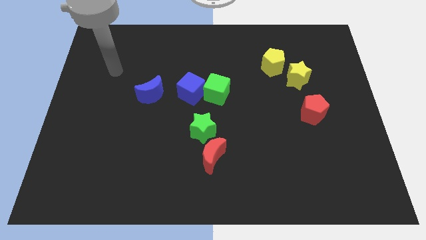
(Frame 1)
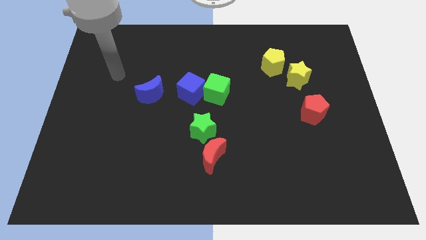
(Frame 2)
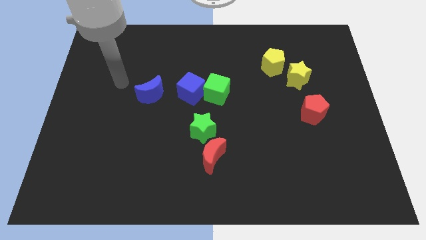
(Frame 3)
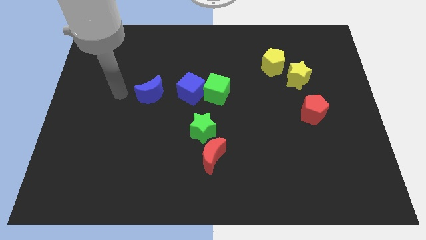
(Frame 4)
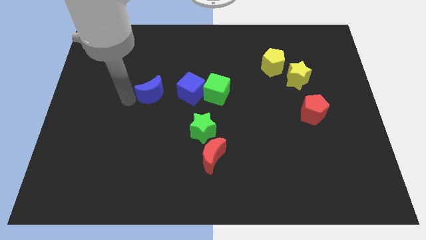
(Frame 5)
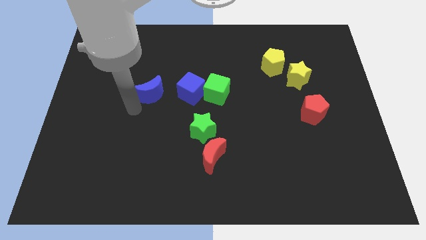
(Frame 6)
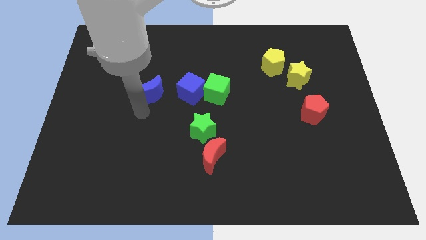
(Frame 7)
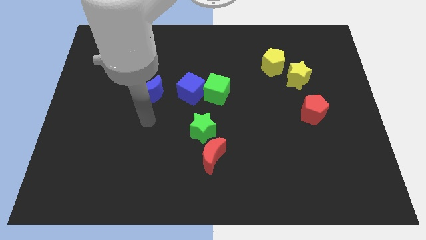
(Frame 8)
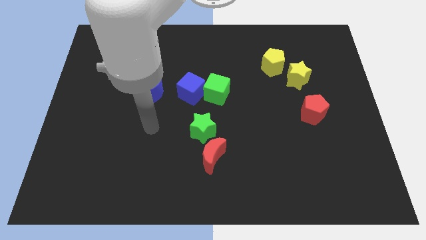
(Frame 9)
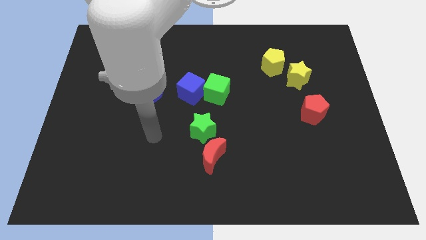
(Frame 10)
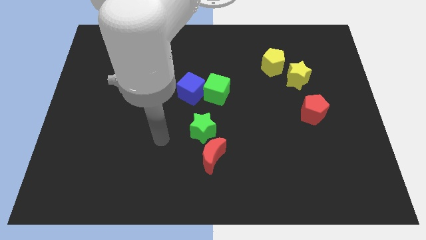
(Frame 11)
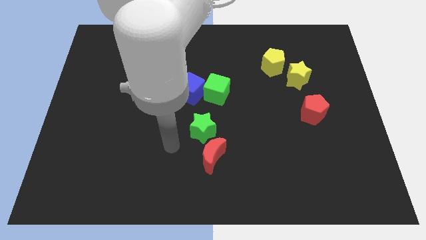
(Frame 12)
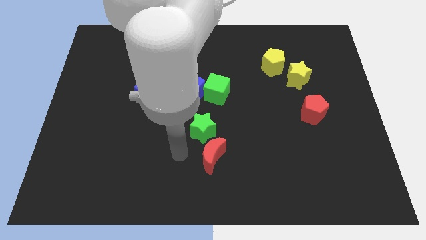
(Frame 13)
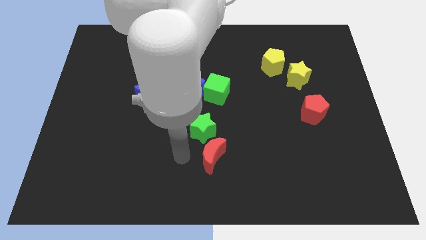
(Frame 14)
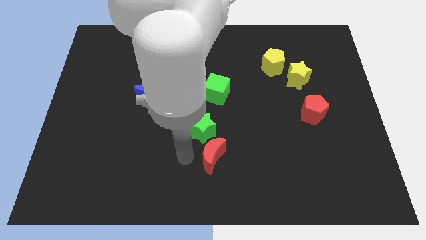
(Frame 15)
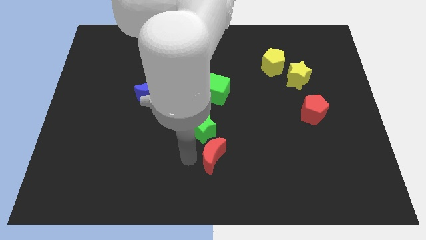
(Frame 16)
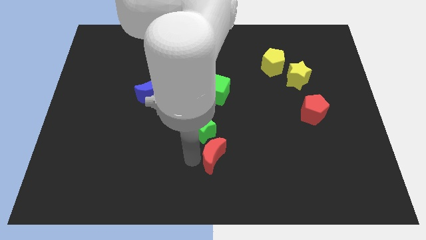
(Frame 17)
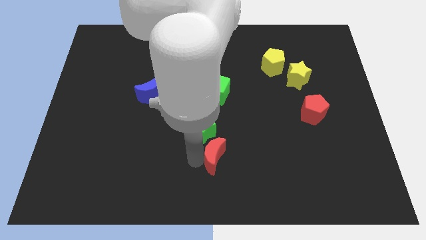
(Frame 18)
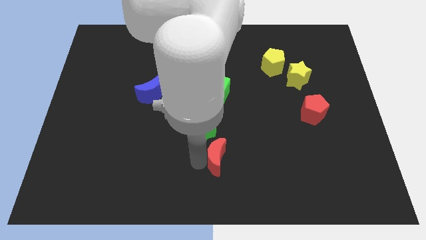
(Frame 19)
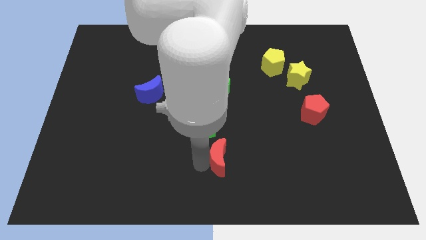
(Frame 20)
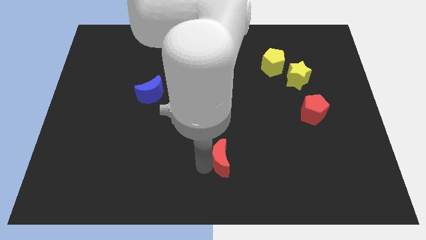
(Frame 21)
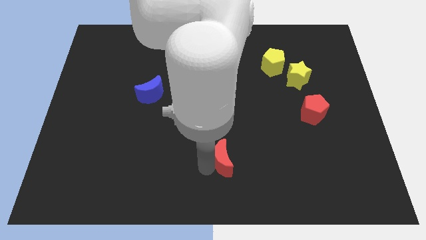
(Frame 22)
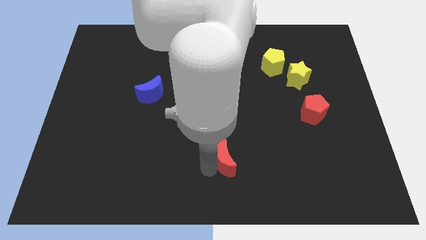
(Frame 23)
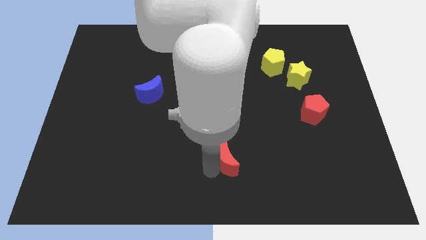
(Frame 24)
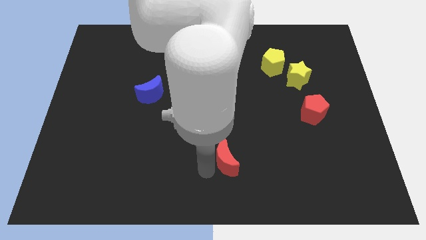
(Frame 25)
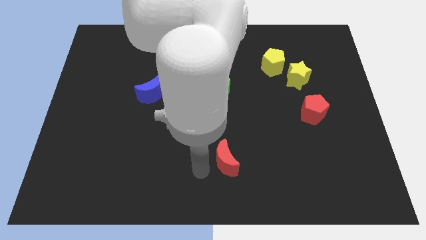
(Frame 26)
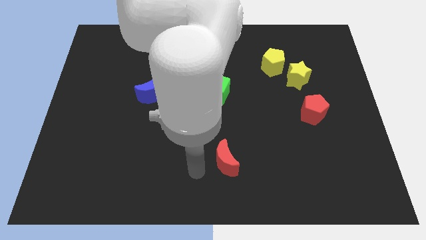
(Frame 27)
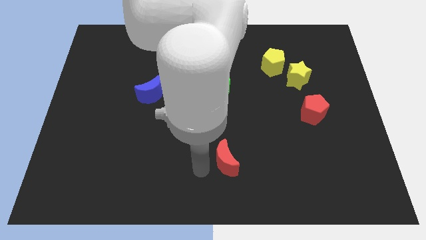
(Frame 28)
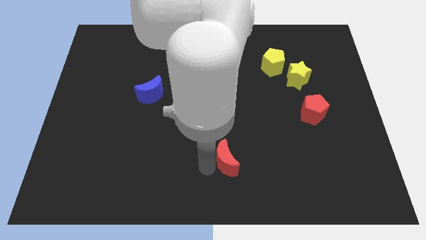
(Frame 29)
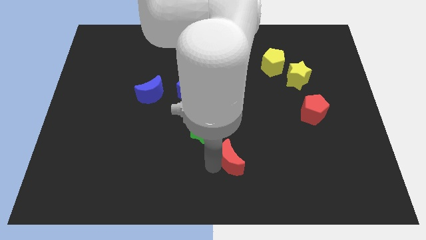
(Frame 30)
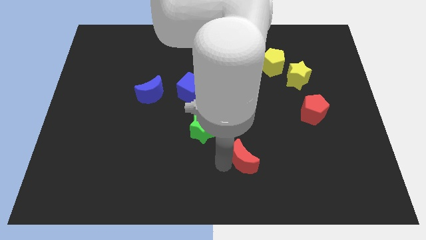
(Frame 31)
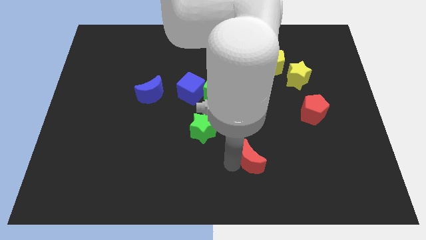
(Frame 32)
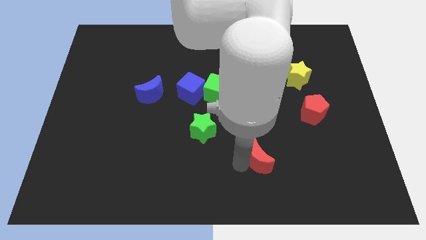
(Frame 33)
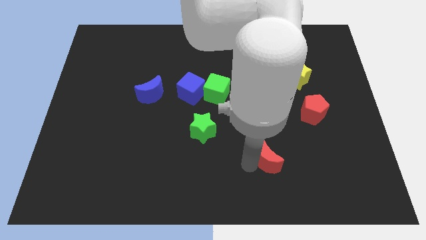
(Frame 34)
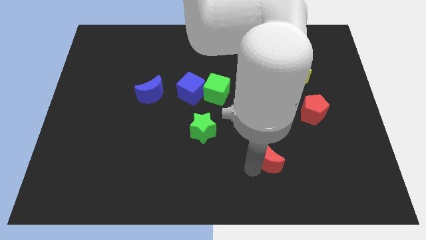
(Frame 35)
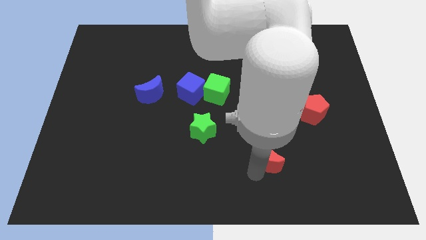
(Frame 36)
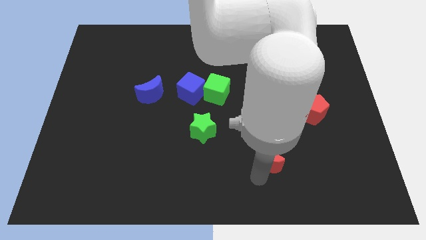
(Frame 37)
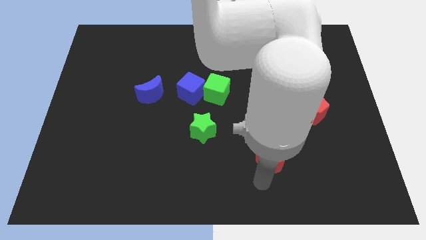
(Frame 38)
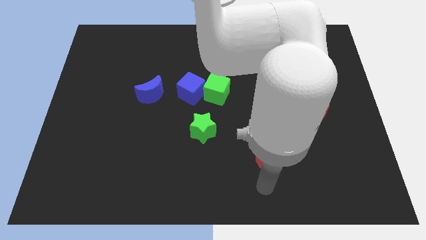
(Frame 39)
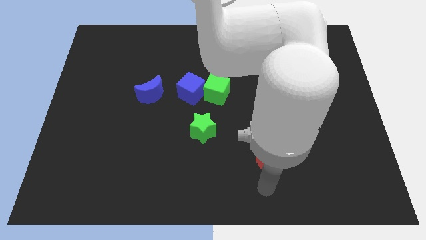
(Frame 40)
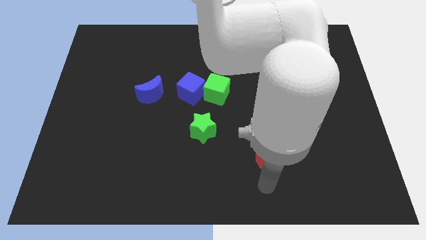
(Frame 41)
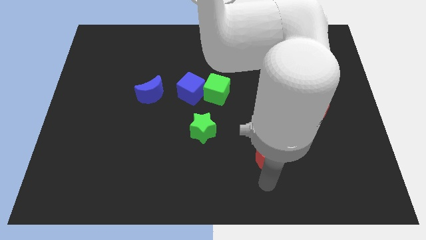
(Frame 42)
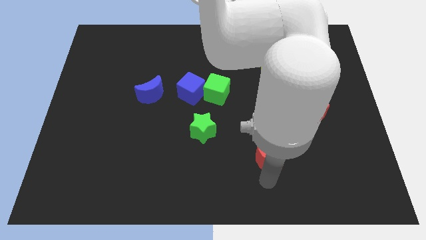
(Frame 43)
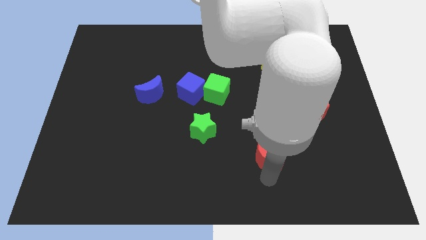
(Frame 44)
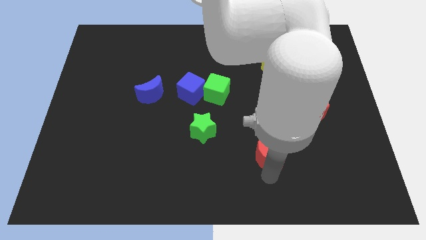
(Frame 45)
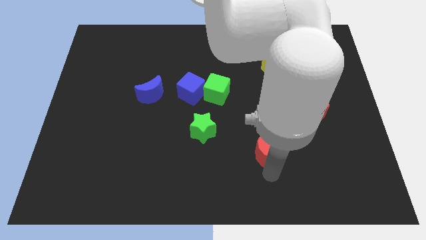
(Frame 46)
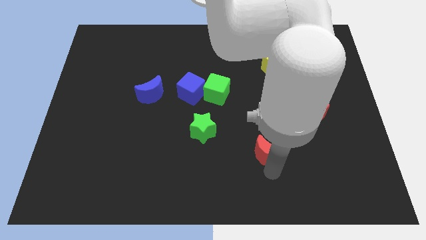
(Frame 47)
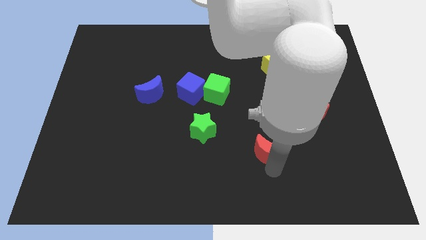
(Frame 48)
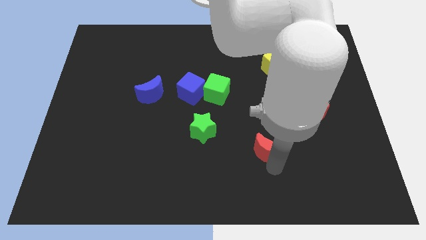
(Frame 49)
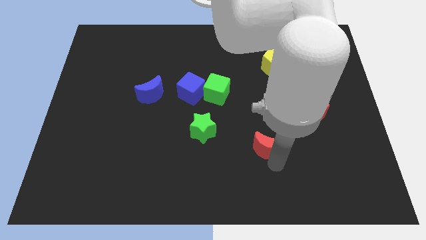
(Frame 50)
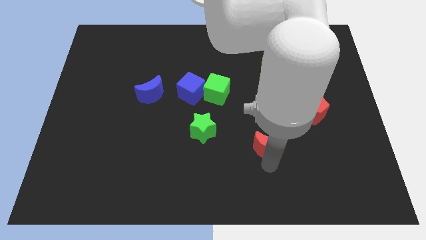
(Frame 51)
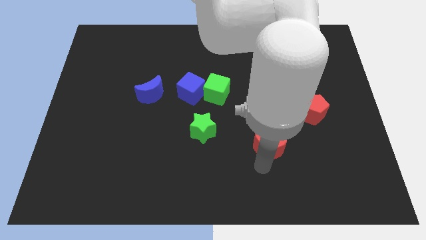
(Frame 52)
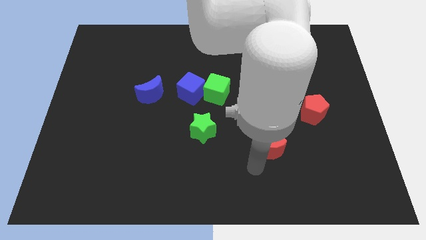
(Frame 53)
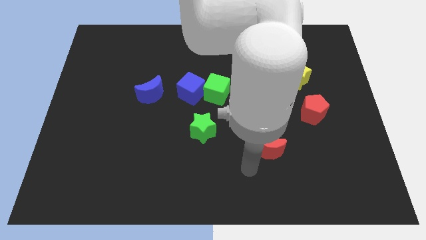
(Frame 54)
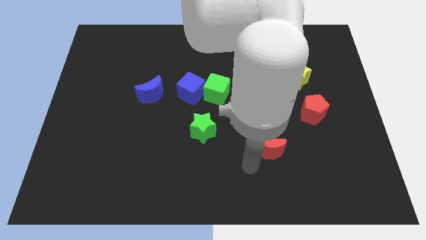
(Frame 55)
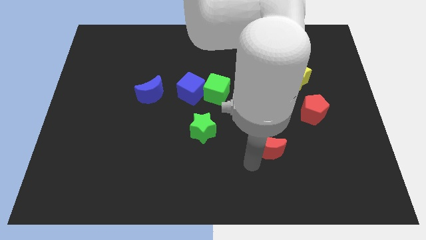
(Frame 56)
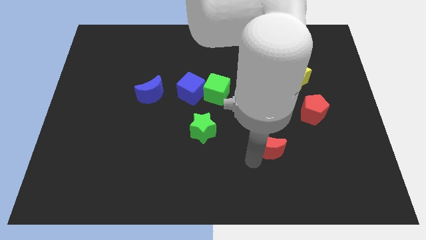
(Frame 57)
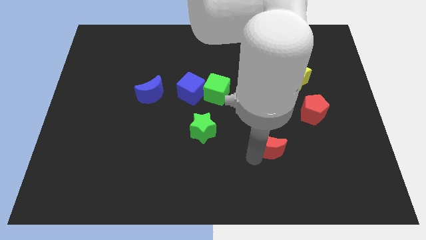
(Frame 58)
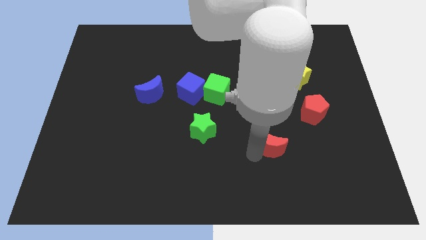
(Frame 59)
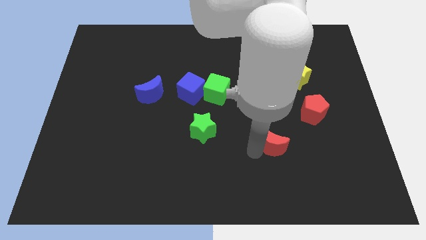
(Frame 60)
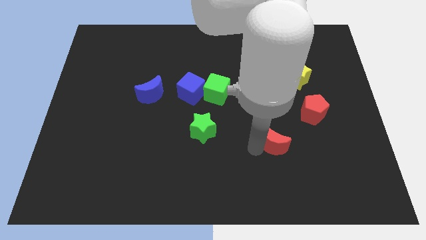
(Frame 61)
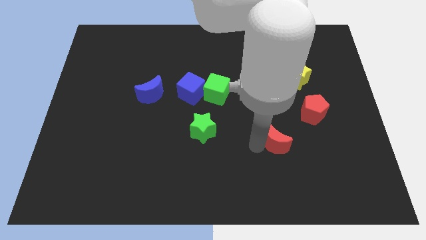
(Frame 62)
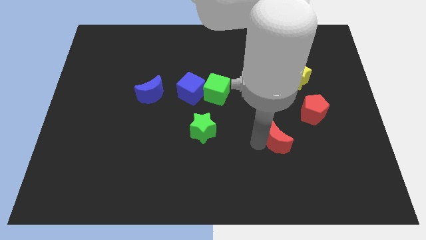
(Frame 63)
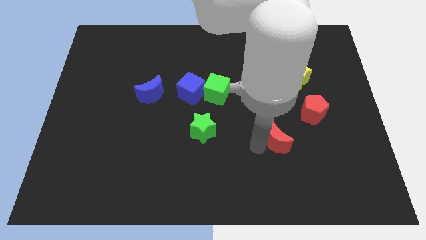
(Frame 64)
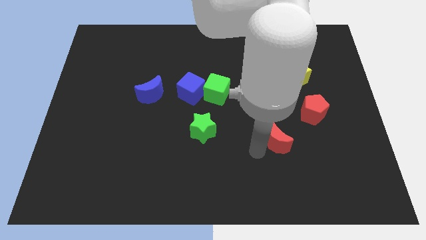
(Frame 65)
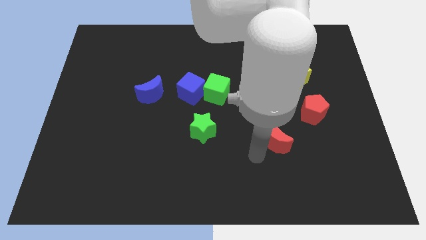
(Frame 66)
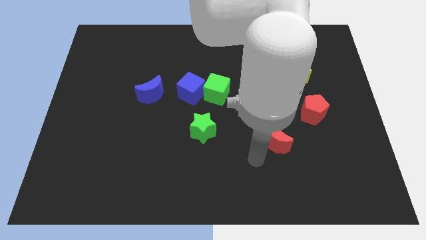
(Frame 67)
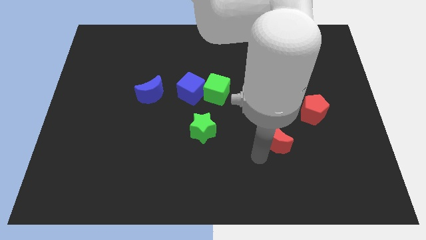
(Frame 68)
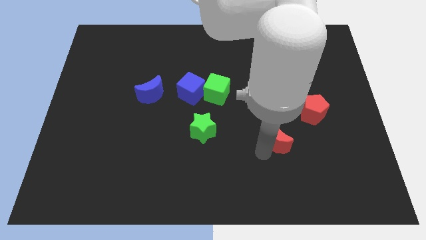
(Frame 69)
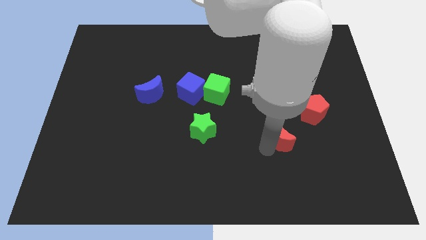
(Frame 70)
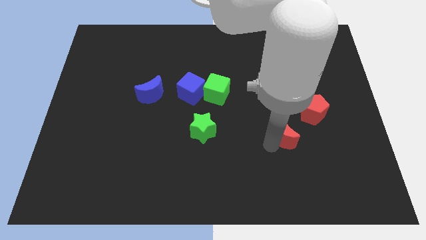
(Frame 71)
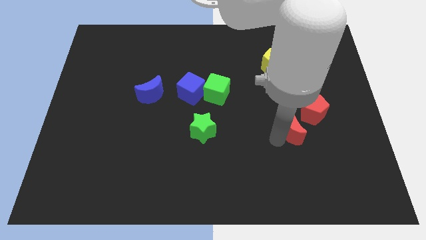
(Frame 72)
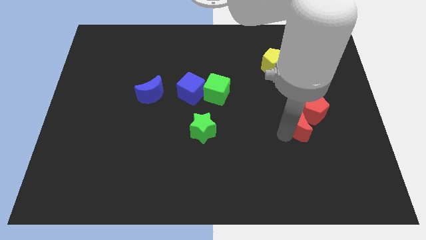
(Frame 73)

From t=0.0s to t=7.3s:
push the red moon towards the red pentagon
